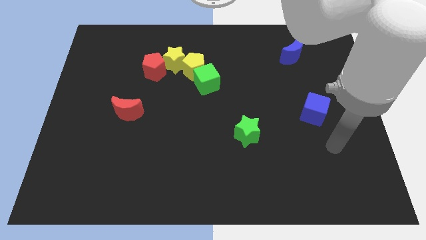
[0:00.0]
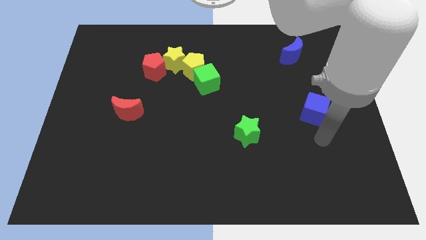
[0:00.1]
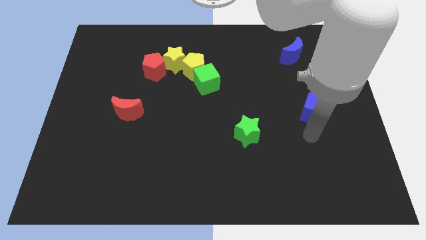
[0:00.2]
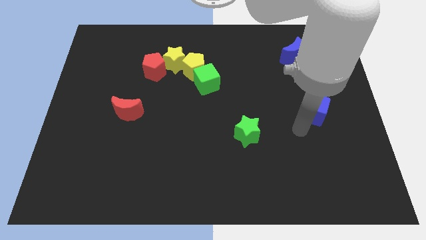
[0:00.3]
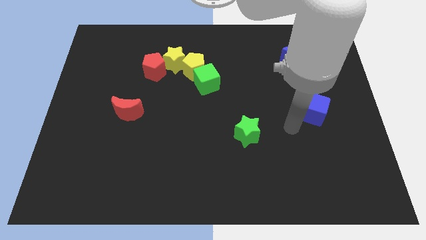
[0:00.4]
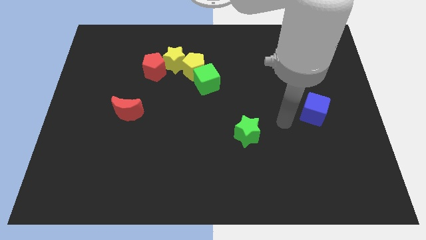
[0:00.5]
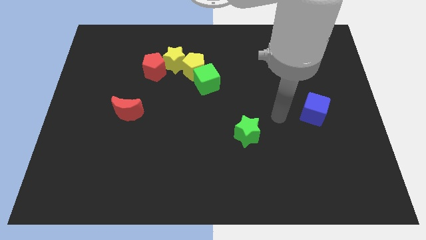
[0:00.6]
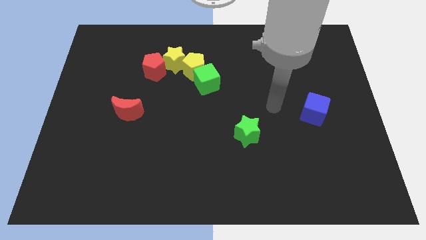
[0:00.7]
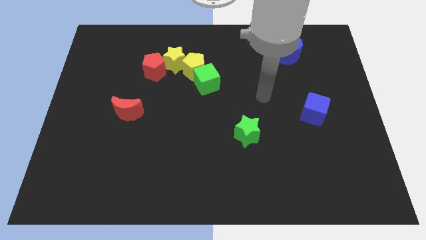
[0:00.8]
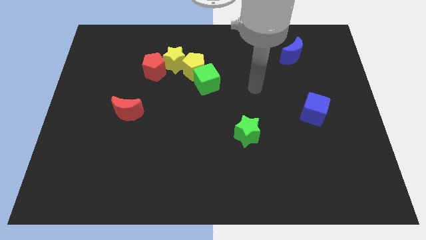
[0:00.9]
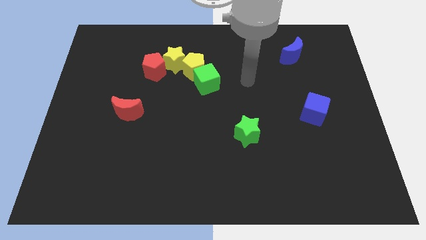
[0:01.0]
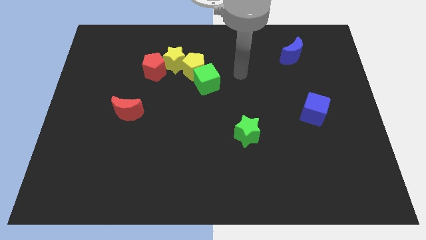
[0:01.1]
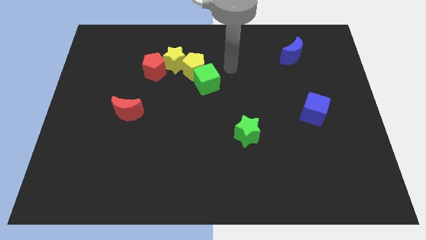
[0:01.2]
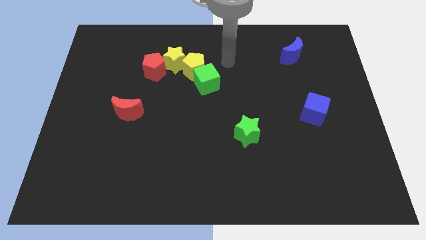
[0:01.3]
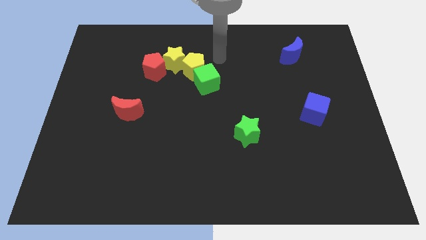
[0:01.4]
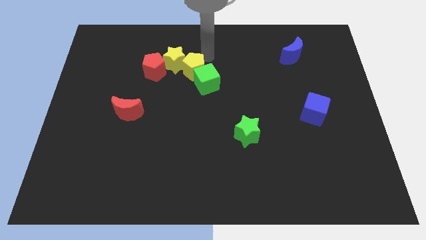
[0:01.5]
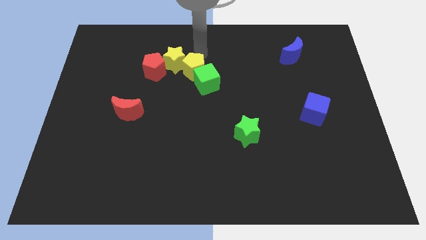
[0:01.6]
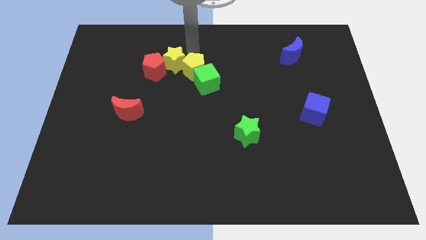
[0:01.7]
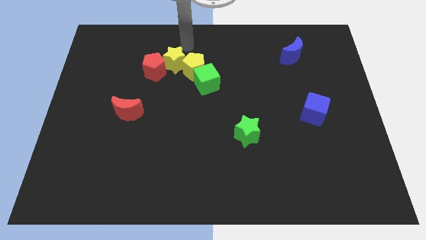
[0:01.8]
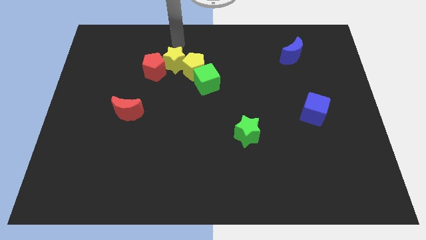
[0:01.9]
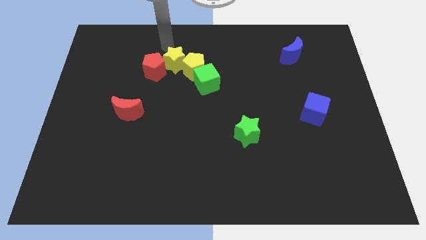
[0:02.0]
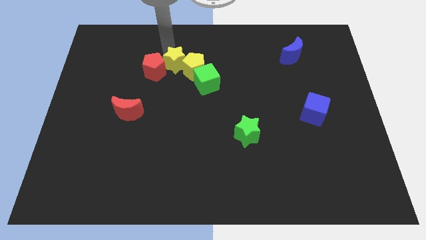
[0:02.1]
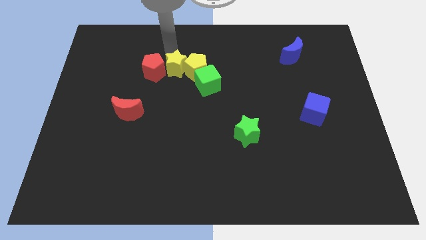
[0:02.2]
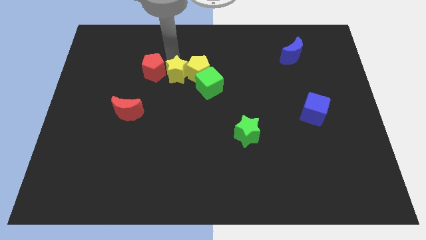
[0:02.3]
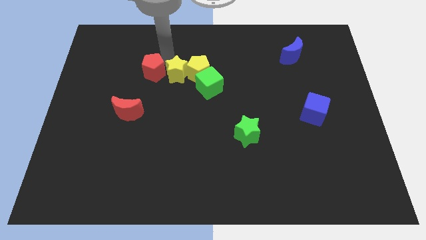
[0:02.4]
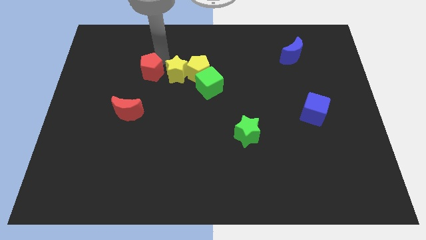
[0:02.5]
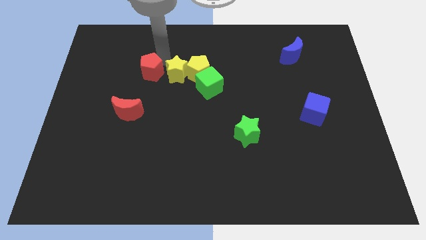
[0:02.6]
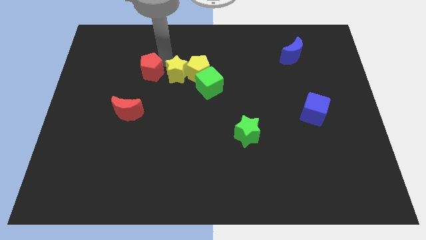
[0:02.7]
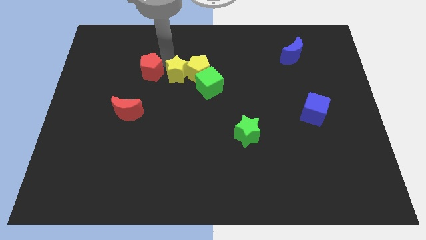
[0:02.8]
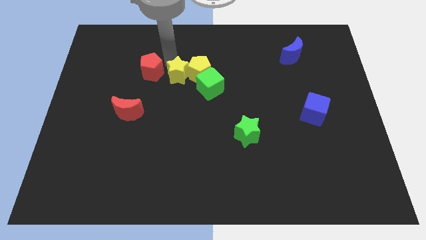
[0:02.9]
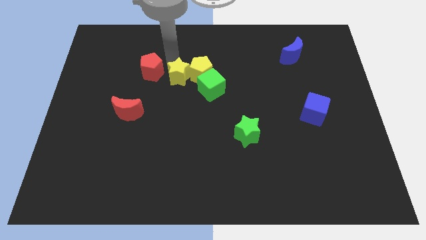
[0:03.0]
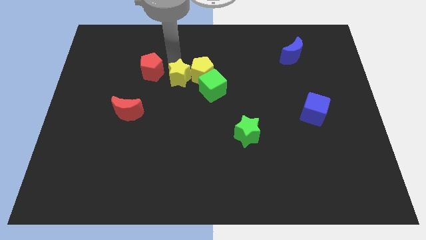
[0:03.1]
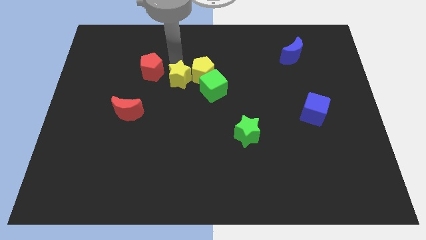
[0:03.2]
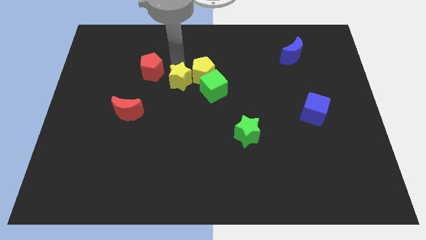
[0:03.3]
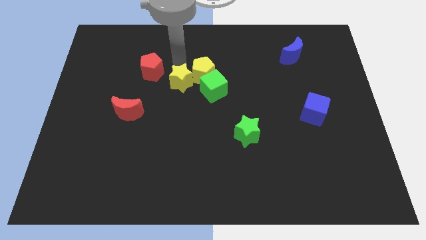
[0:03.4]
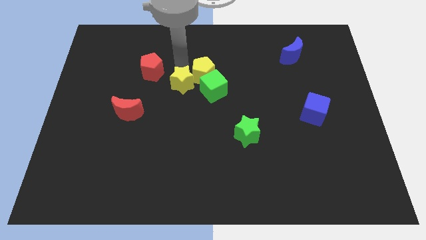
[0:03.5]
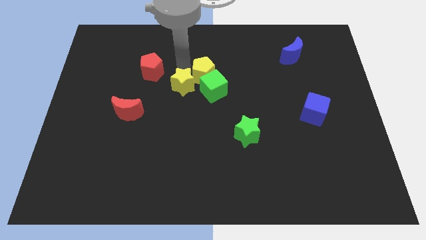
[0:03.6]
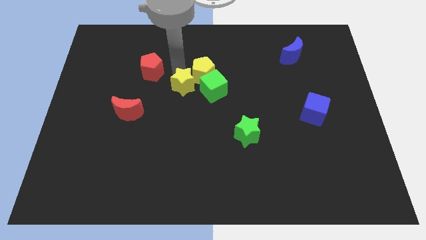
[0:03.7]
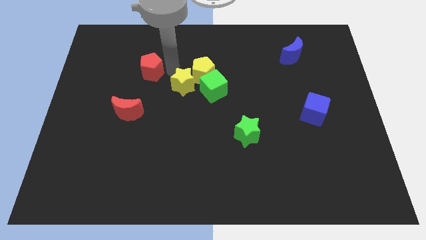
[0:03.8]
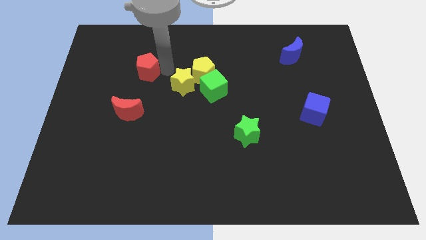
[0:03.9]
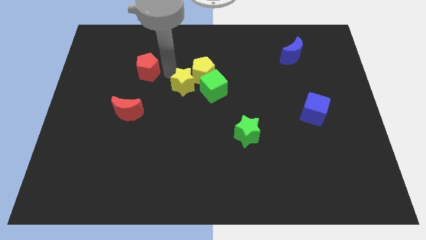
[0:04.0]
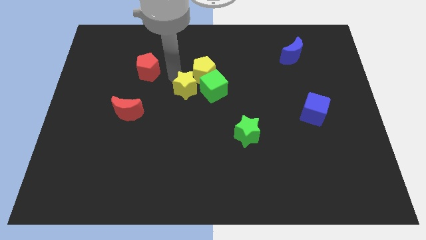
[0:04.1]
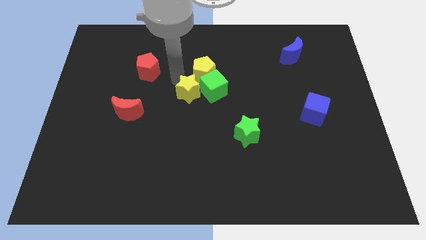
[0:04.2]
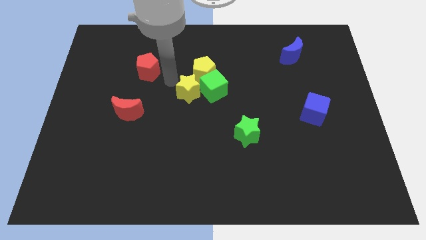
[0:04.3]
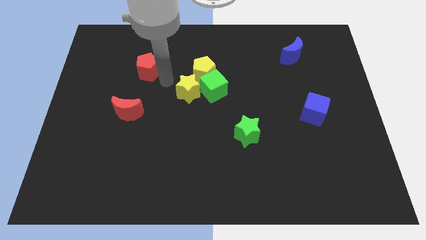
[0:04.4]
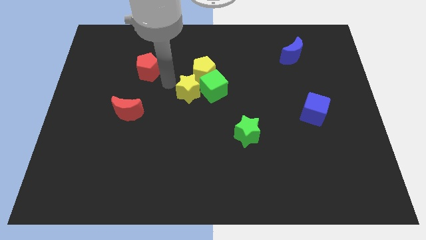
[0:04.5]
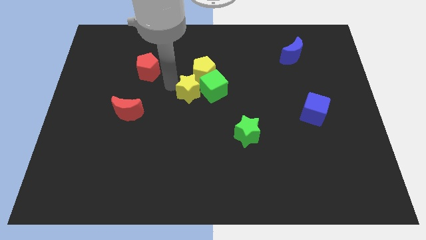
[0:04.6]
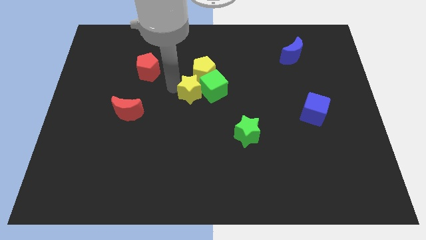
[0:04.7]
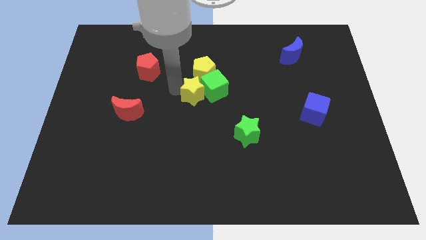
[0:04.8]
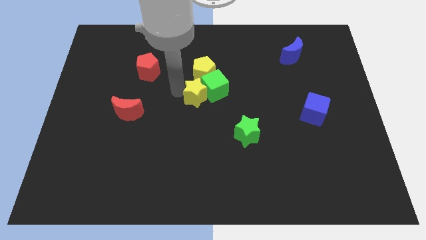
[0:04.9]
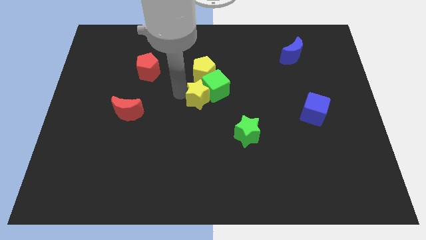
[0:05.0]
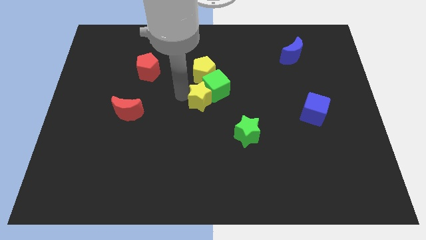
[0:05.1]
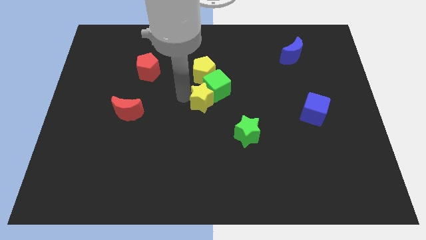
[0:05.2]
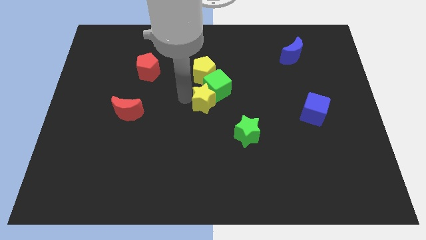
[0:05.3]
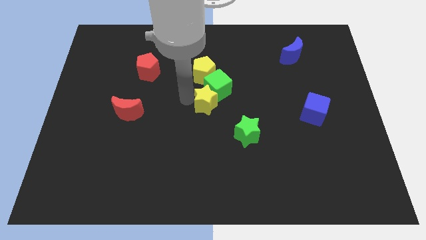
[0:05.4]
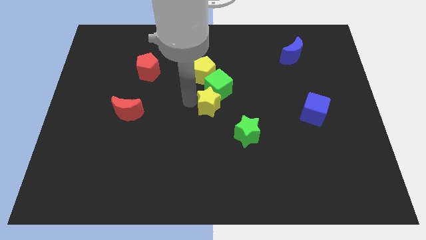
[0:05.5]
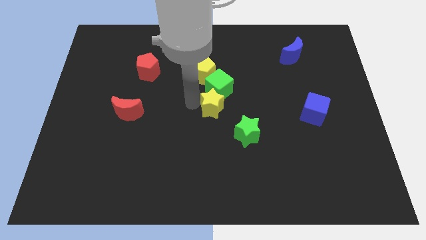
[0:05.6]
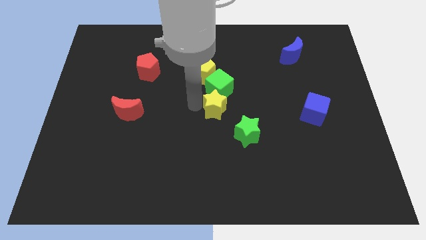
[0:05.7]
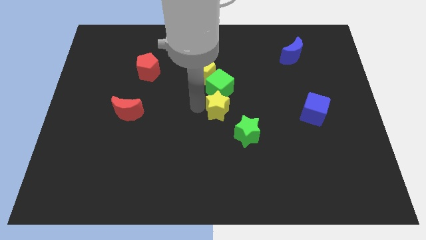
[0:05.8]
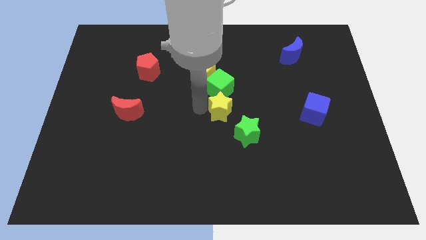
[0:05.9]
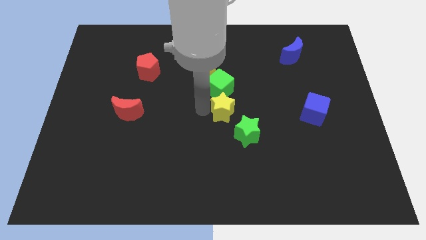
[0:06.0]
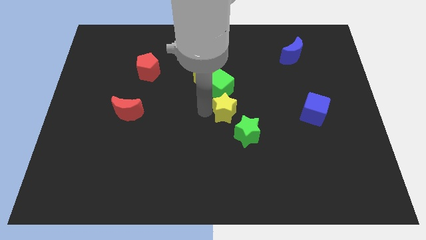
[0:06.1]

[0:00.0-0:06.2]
move the yellow star diagonally down and to the right

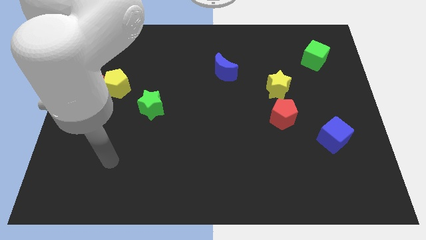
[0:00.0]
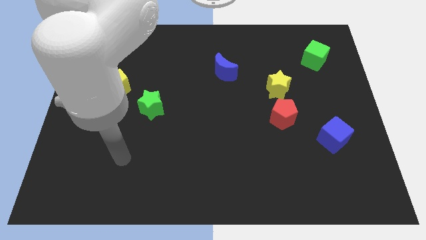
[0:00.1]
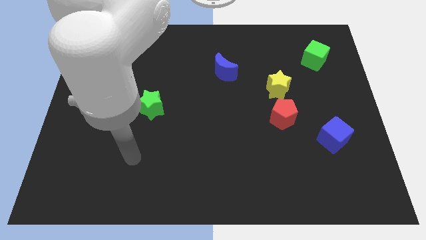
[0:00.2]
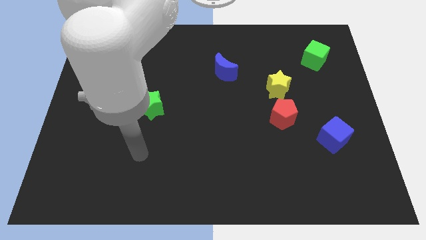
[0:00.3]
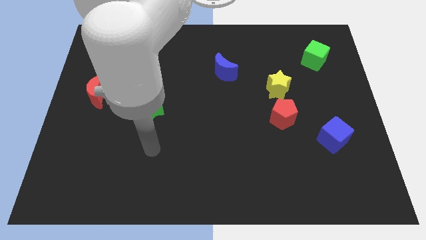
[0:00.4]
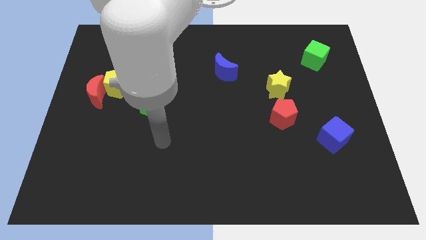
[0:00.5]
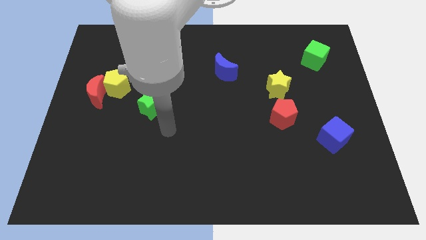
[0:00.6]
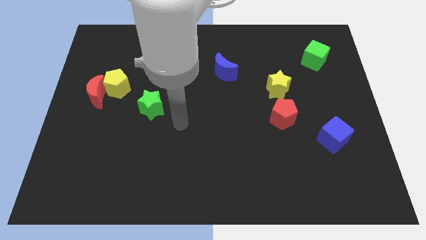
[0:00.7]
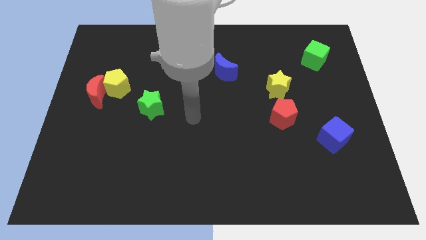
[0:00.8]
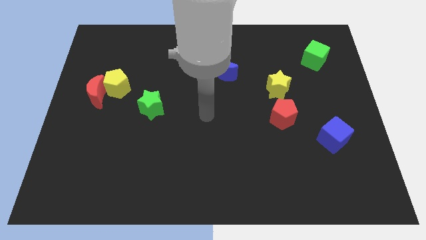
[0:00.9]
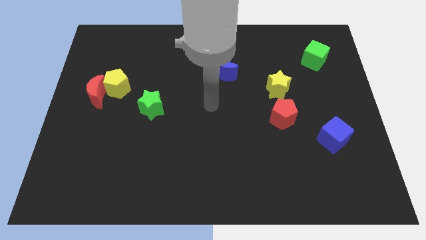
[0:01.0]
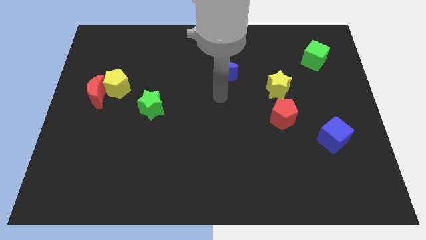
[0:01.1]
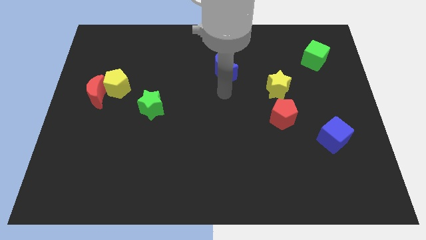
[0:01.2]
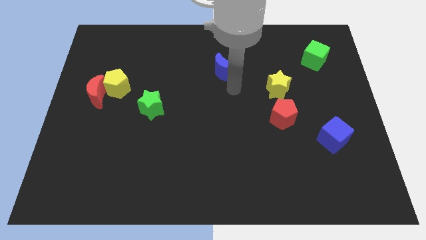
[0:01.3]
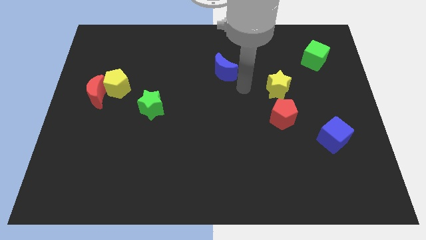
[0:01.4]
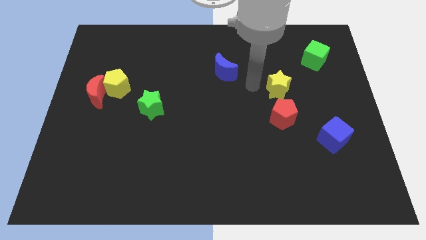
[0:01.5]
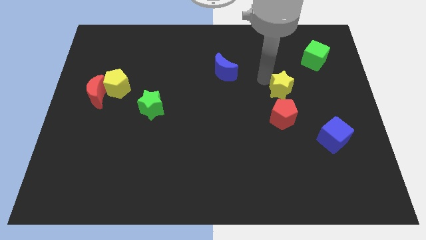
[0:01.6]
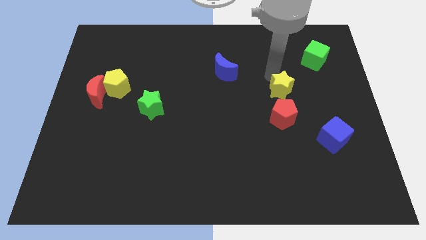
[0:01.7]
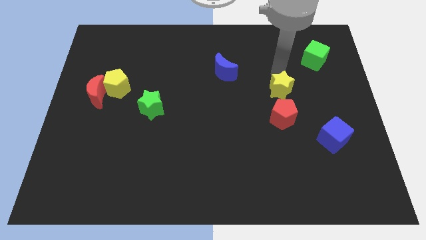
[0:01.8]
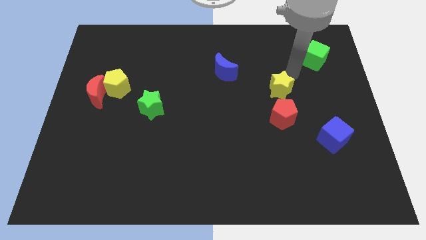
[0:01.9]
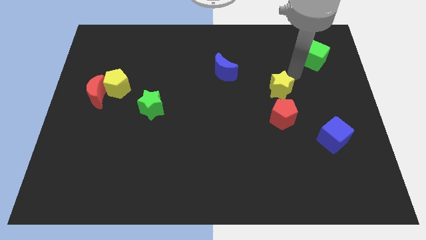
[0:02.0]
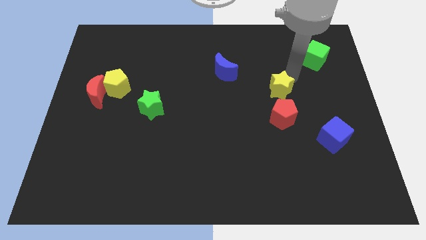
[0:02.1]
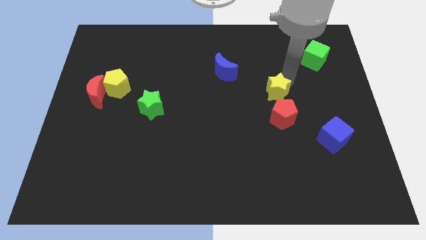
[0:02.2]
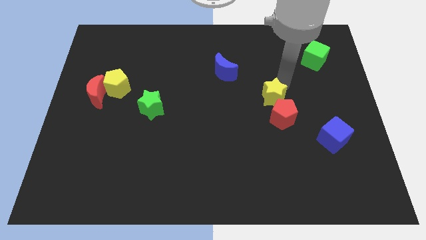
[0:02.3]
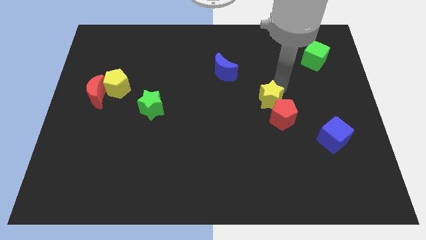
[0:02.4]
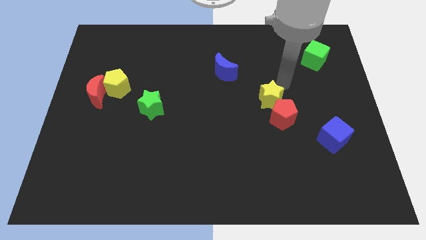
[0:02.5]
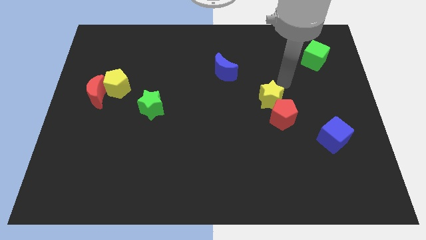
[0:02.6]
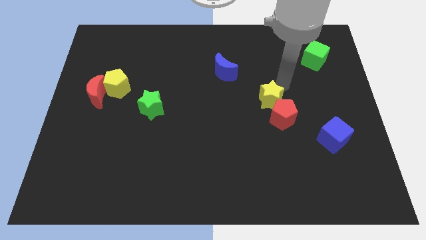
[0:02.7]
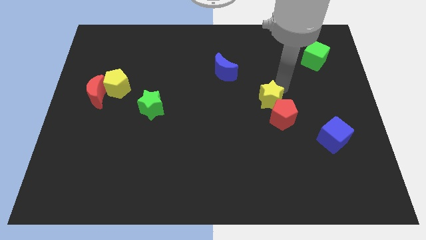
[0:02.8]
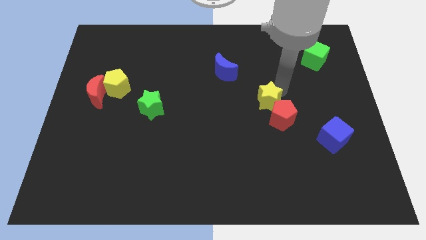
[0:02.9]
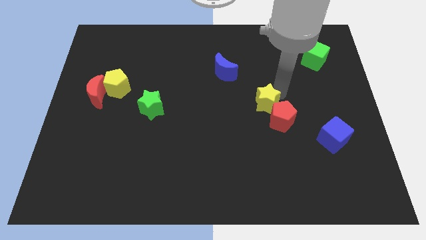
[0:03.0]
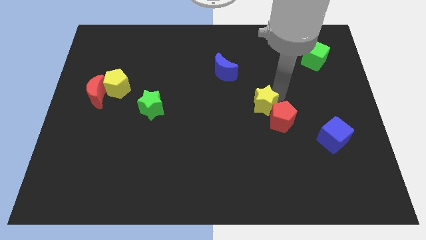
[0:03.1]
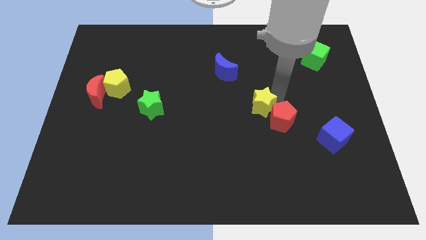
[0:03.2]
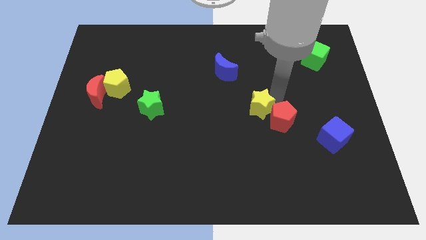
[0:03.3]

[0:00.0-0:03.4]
slightly move the yellow star downwards and left diagonally
